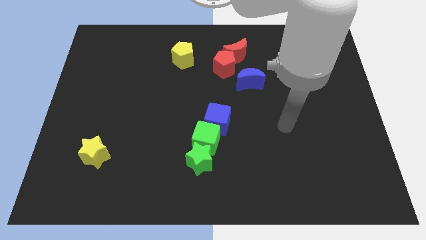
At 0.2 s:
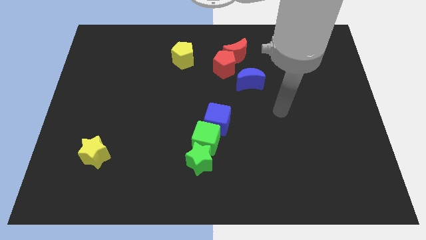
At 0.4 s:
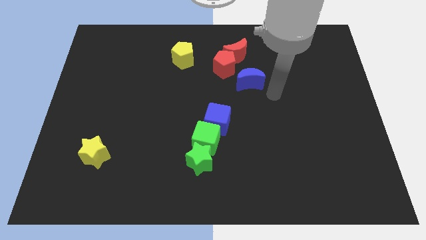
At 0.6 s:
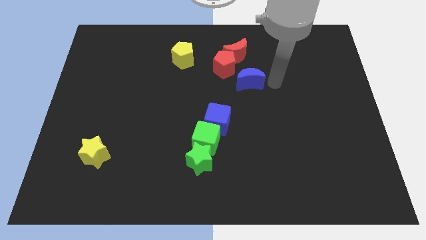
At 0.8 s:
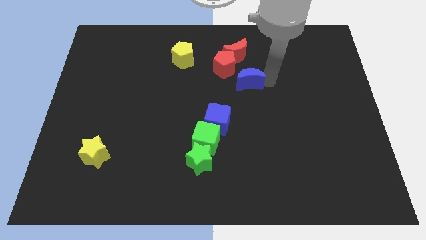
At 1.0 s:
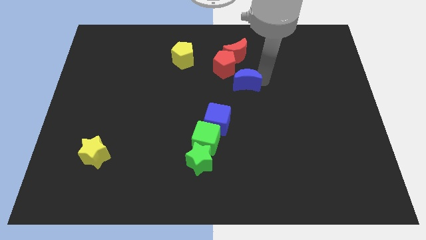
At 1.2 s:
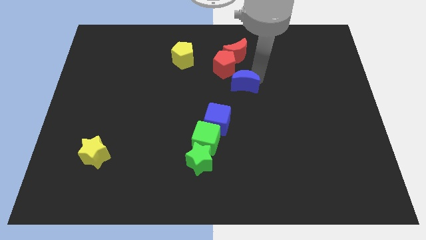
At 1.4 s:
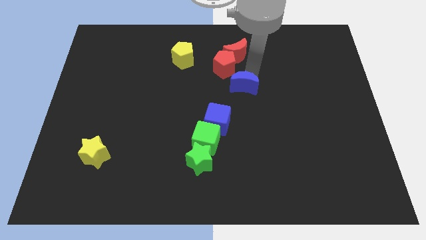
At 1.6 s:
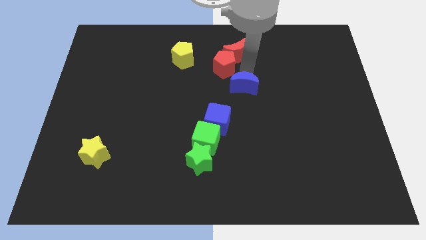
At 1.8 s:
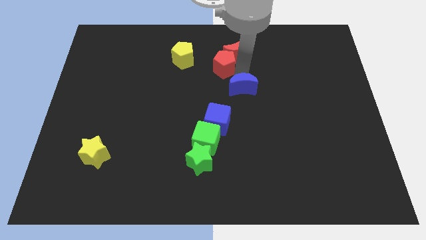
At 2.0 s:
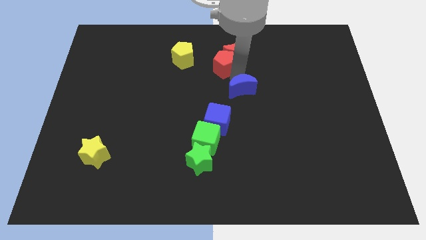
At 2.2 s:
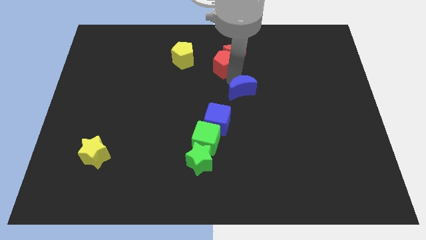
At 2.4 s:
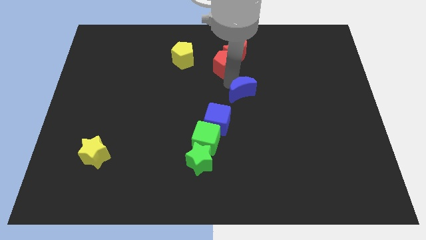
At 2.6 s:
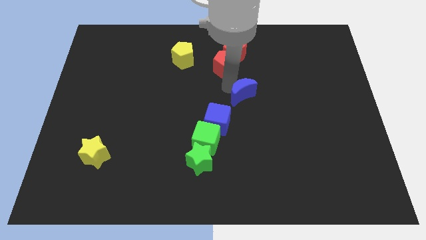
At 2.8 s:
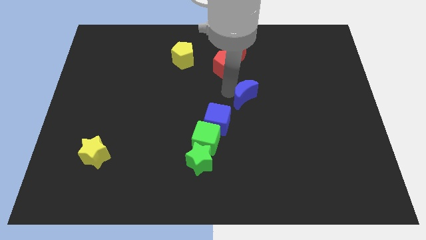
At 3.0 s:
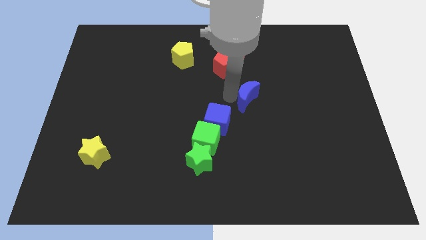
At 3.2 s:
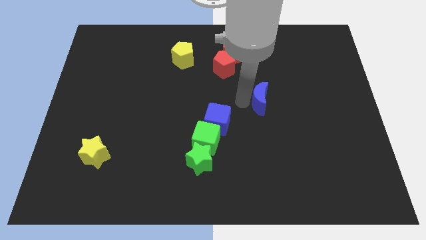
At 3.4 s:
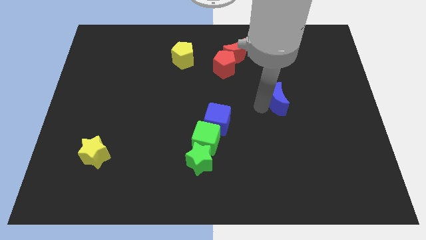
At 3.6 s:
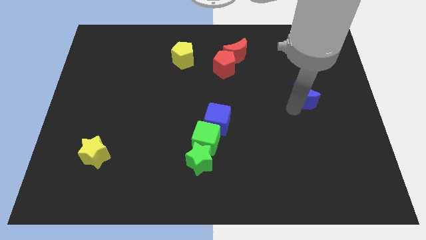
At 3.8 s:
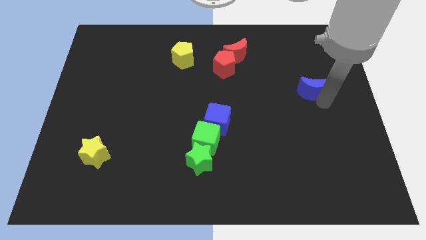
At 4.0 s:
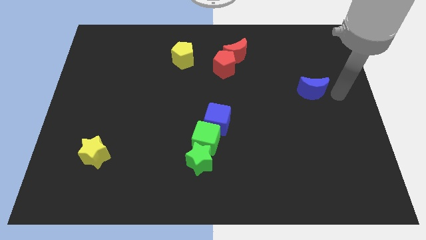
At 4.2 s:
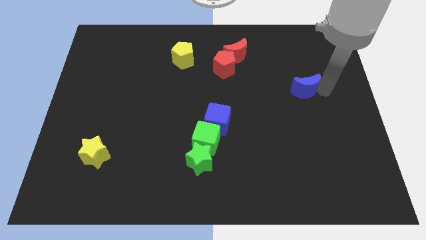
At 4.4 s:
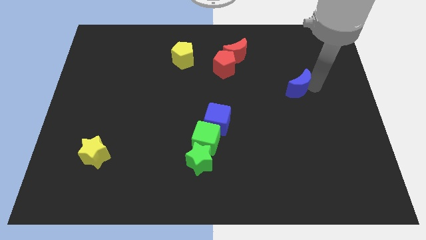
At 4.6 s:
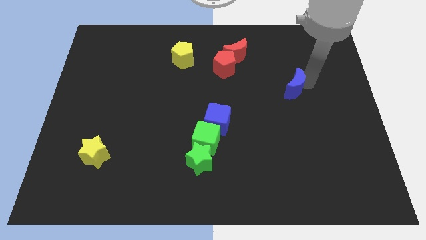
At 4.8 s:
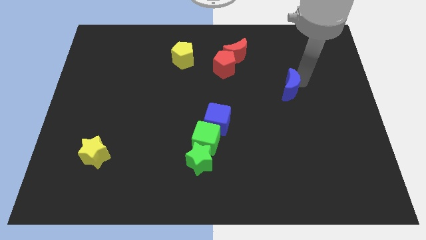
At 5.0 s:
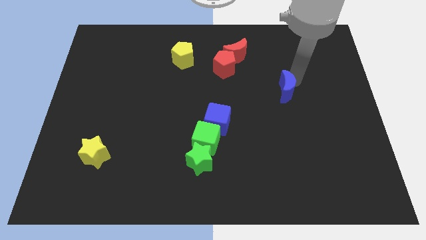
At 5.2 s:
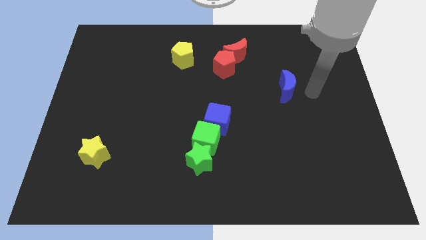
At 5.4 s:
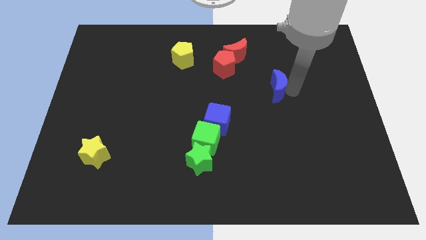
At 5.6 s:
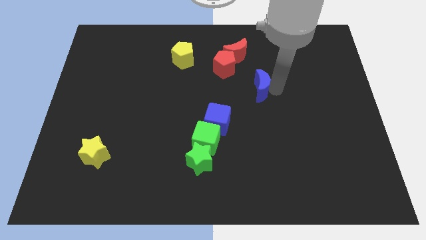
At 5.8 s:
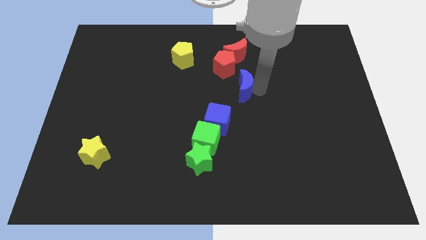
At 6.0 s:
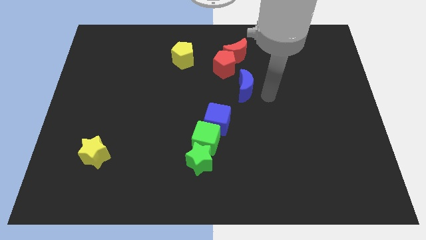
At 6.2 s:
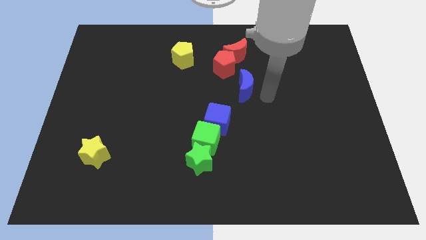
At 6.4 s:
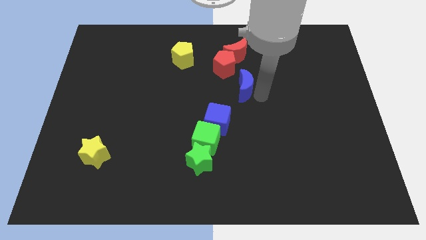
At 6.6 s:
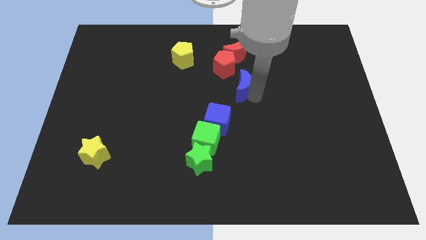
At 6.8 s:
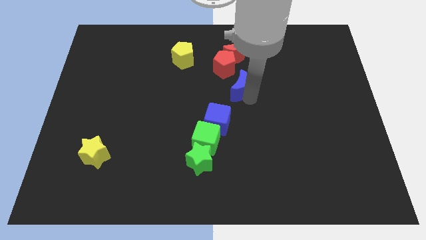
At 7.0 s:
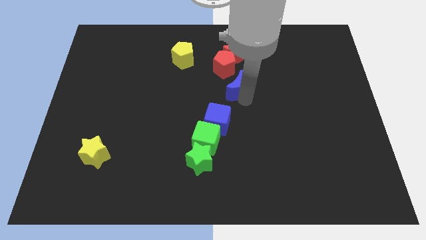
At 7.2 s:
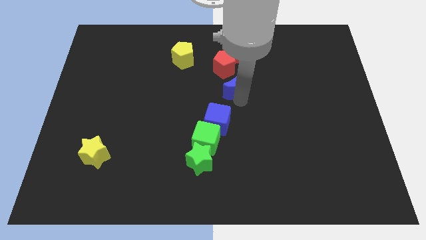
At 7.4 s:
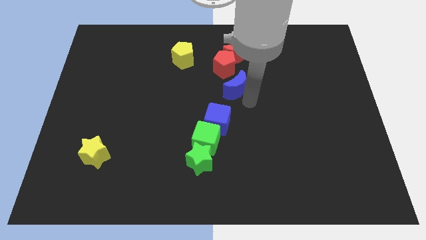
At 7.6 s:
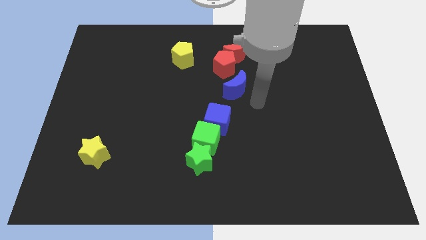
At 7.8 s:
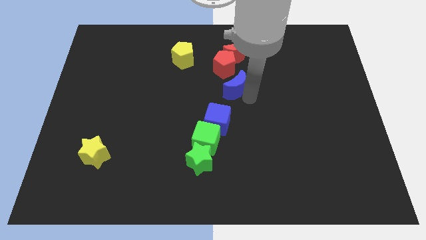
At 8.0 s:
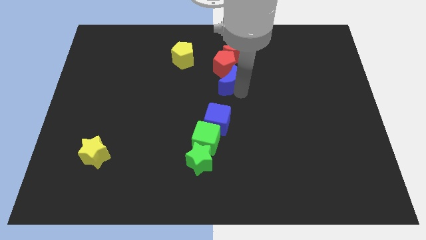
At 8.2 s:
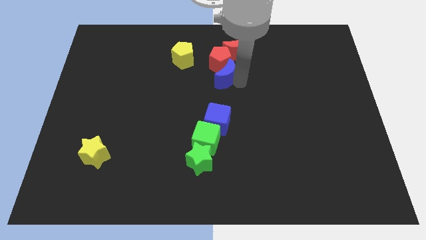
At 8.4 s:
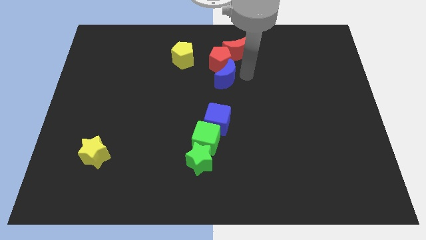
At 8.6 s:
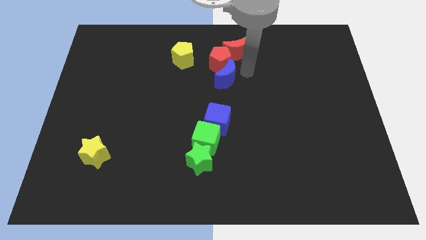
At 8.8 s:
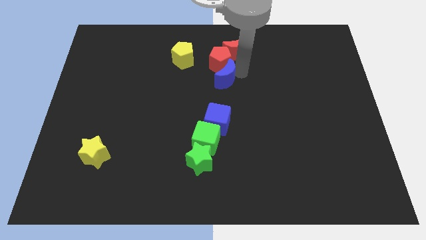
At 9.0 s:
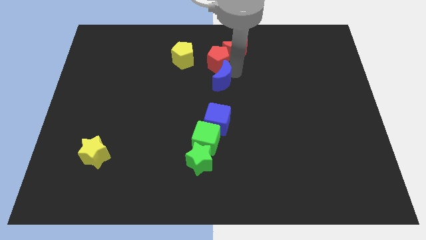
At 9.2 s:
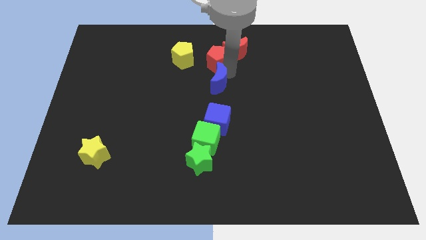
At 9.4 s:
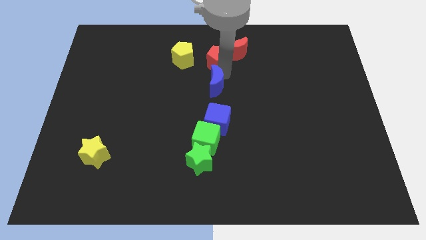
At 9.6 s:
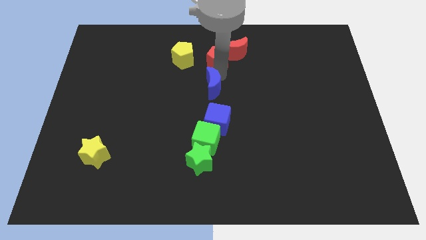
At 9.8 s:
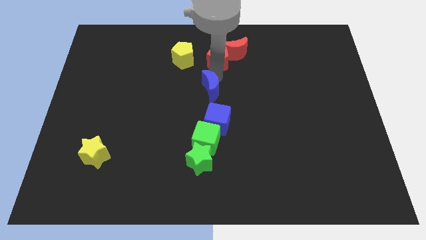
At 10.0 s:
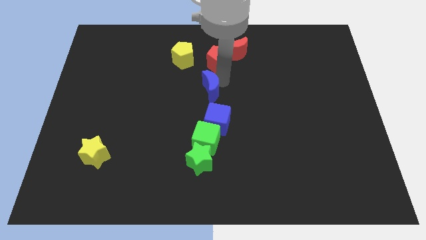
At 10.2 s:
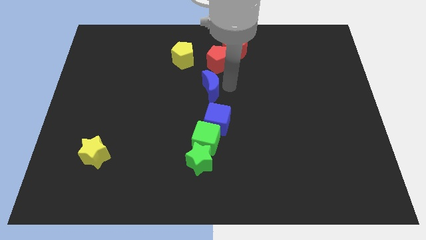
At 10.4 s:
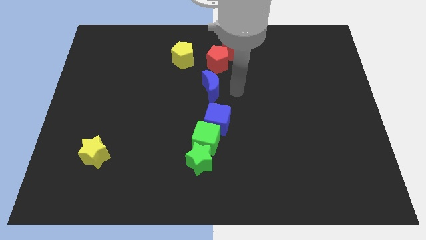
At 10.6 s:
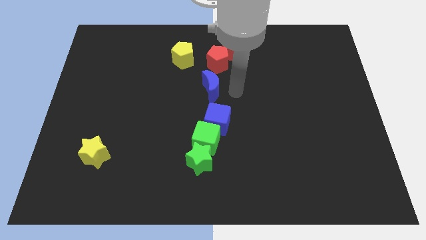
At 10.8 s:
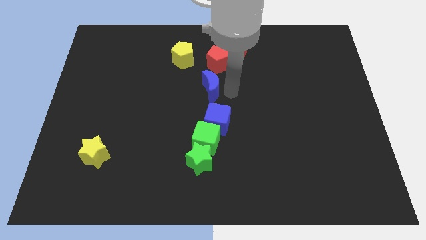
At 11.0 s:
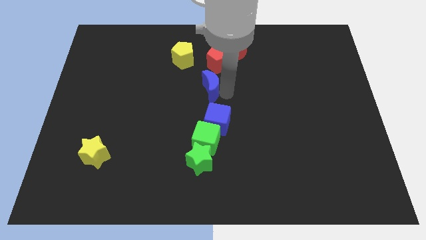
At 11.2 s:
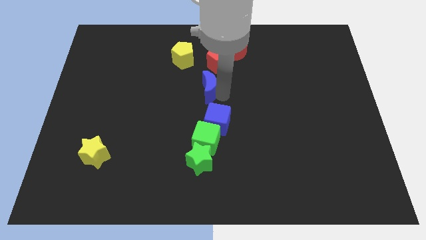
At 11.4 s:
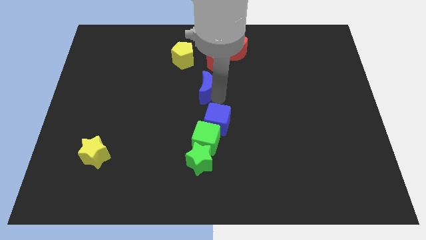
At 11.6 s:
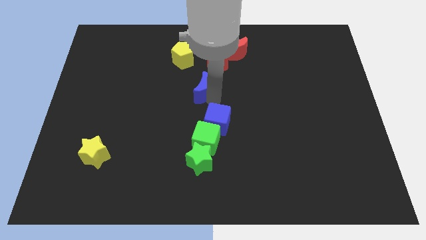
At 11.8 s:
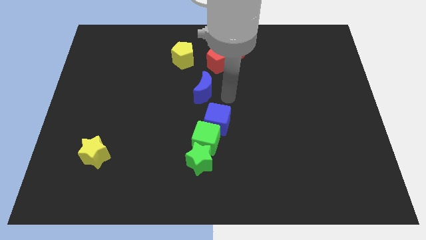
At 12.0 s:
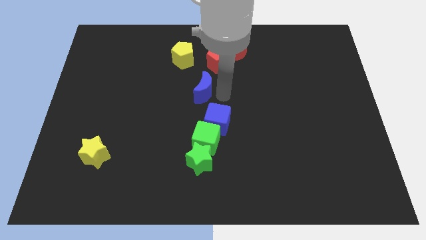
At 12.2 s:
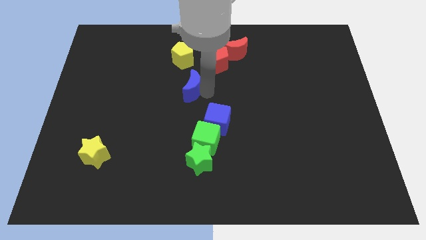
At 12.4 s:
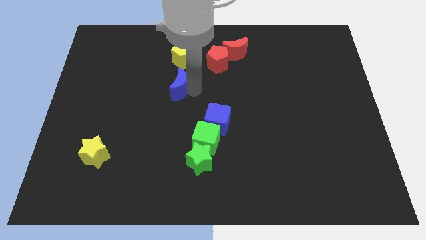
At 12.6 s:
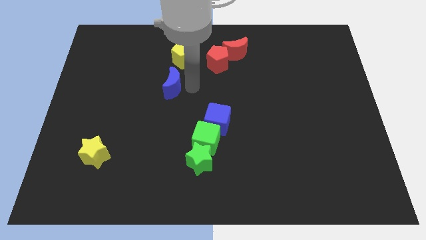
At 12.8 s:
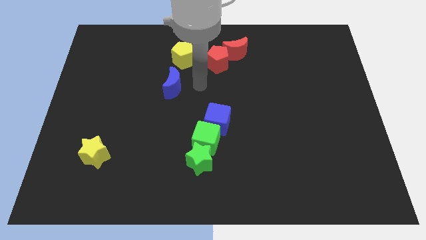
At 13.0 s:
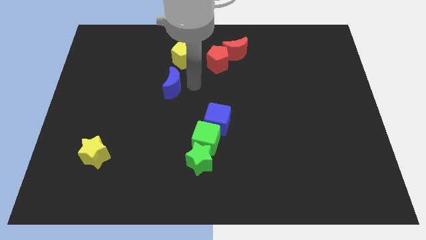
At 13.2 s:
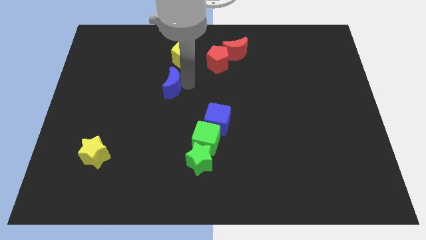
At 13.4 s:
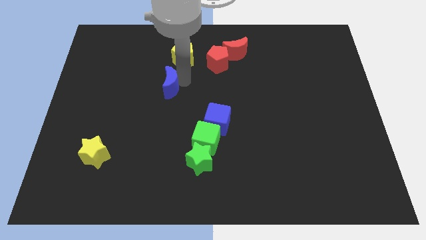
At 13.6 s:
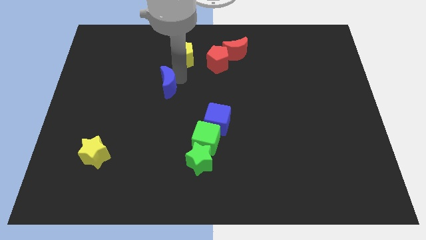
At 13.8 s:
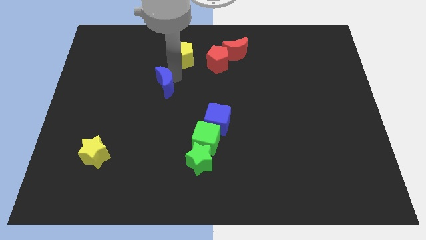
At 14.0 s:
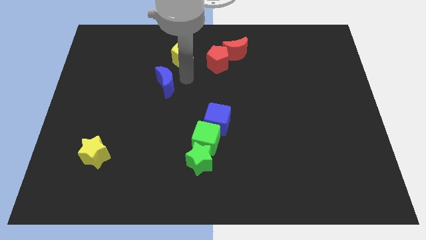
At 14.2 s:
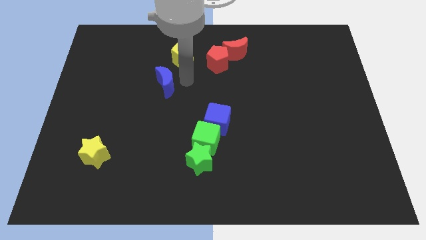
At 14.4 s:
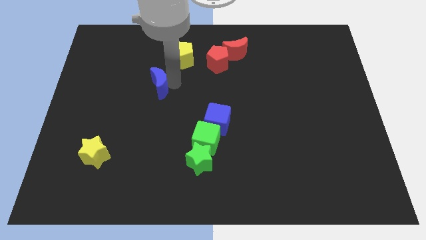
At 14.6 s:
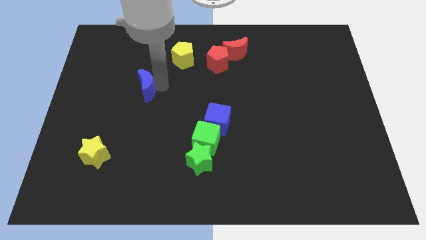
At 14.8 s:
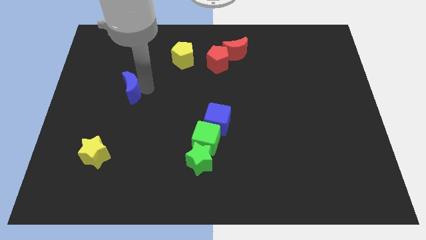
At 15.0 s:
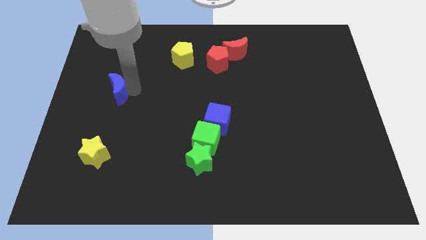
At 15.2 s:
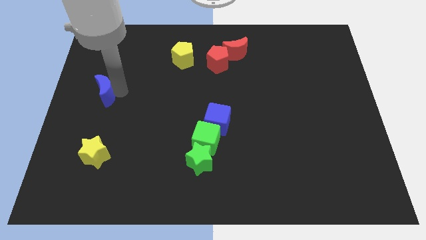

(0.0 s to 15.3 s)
slide the blue moon to the center left
